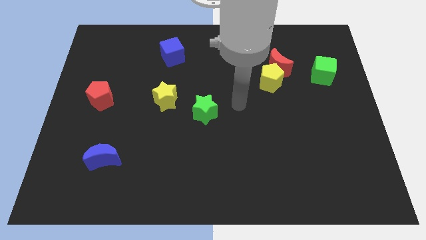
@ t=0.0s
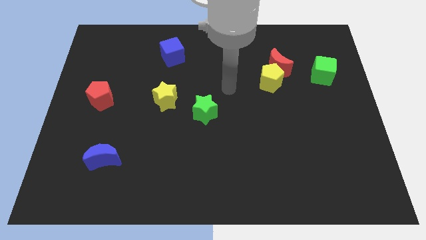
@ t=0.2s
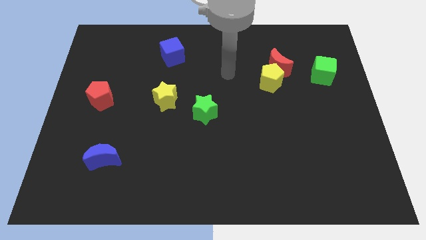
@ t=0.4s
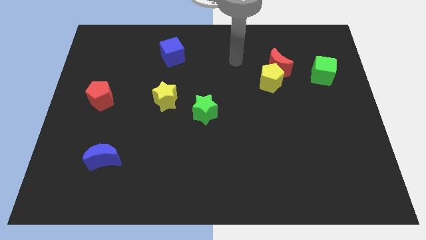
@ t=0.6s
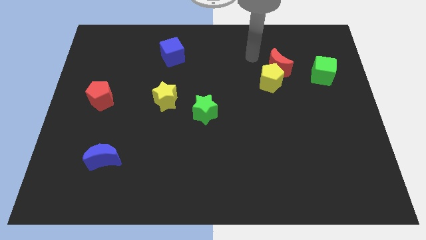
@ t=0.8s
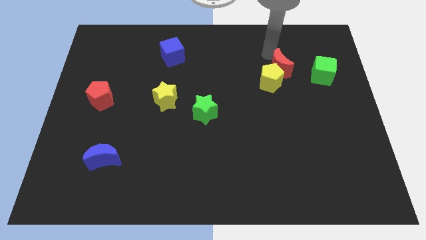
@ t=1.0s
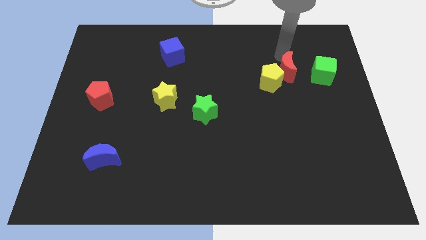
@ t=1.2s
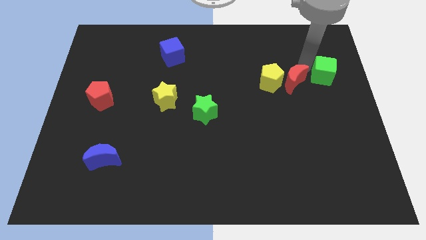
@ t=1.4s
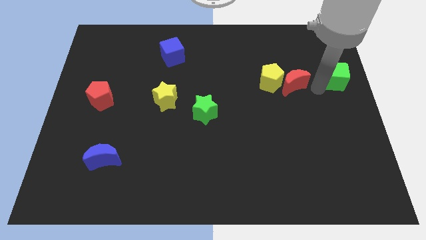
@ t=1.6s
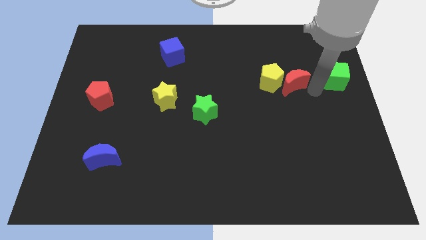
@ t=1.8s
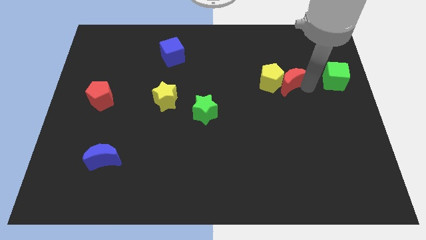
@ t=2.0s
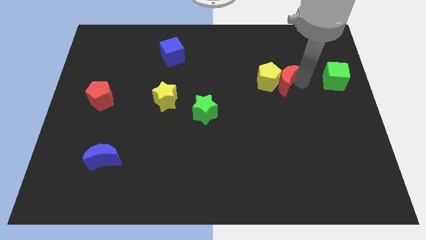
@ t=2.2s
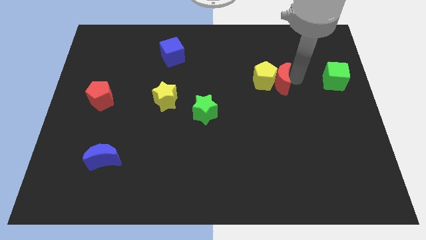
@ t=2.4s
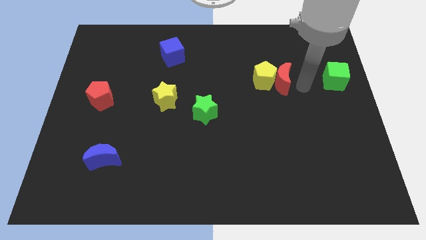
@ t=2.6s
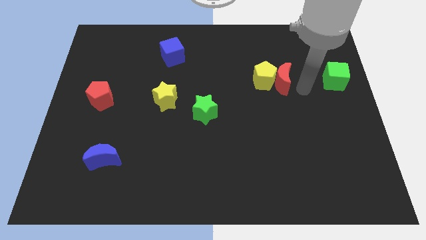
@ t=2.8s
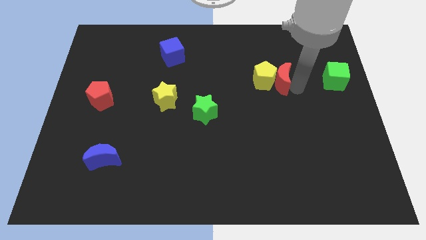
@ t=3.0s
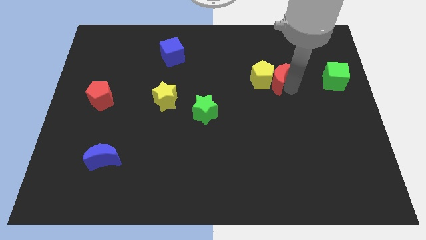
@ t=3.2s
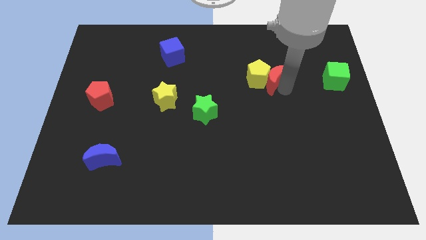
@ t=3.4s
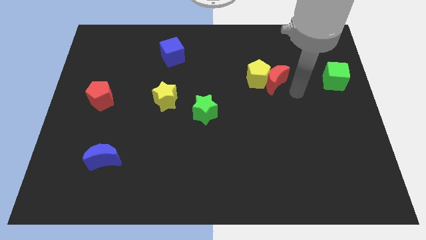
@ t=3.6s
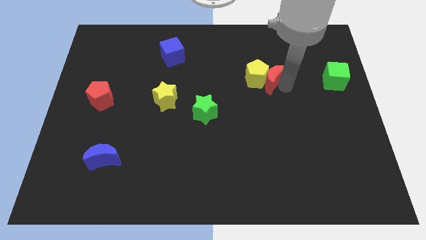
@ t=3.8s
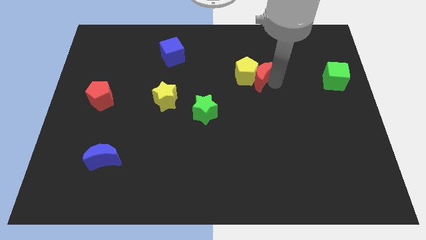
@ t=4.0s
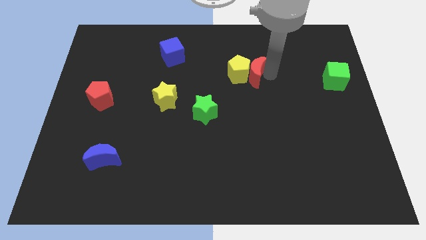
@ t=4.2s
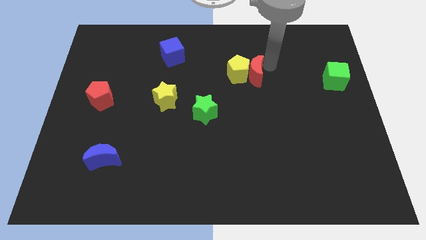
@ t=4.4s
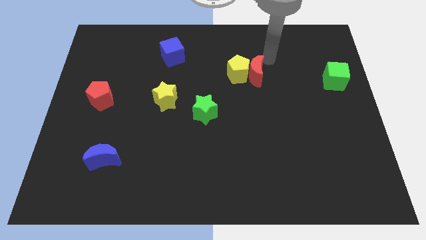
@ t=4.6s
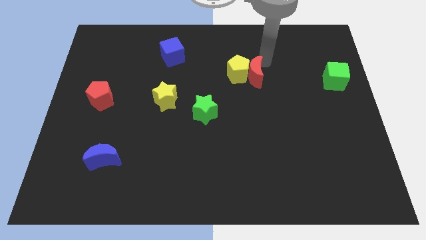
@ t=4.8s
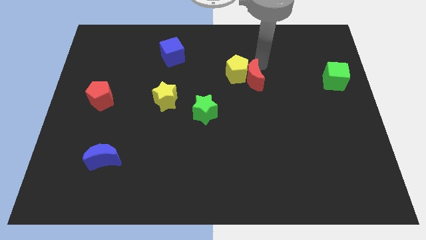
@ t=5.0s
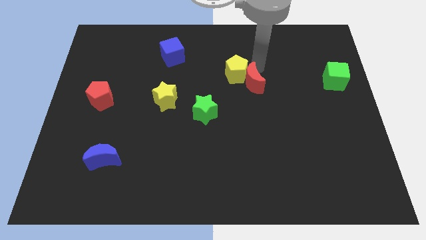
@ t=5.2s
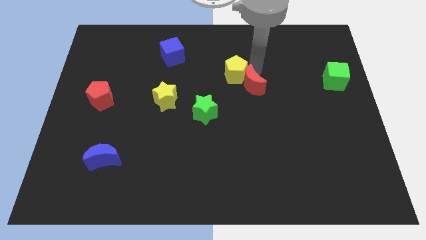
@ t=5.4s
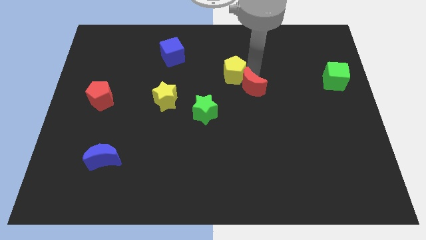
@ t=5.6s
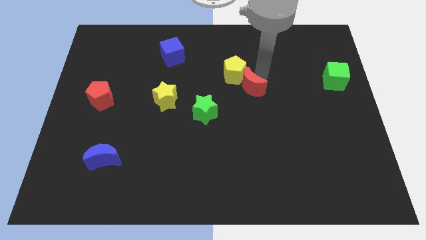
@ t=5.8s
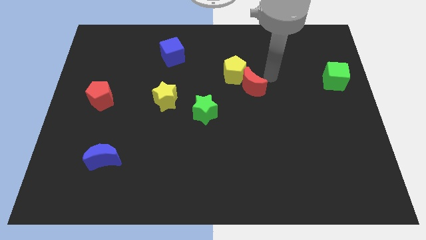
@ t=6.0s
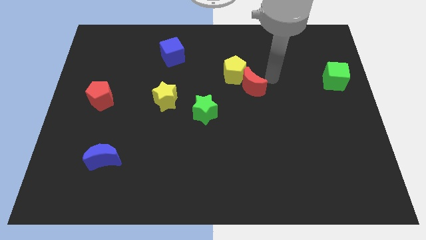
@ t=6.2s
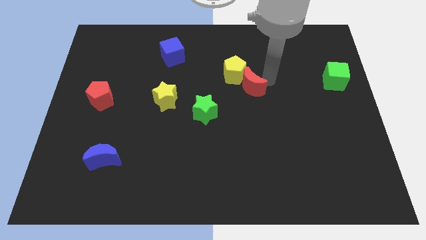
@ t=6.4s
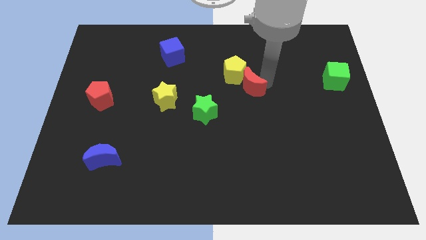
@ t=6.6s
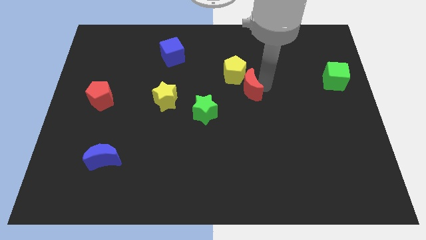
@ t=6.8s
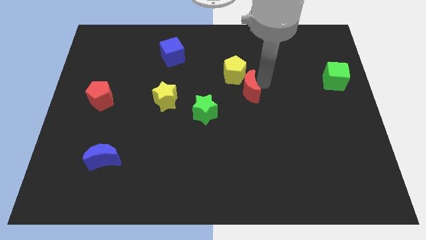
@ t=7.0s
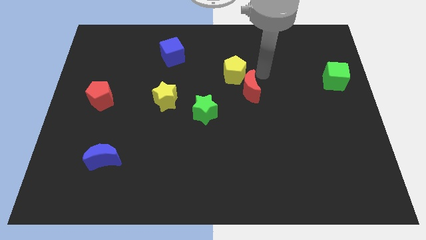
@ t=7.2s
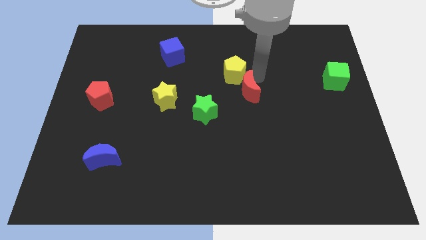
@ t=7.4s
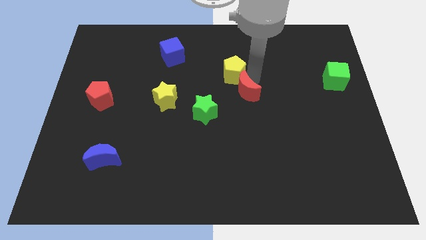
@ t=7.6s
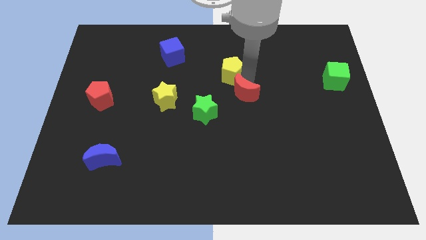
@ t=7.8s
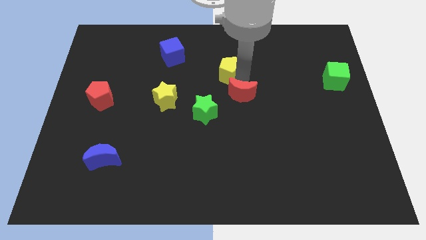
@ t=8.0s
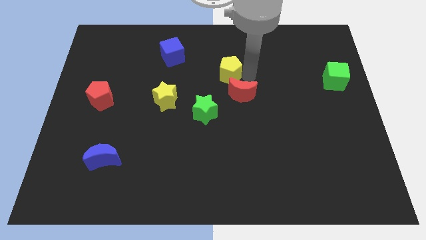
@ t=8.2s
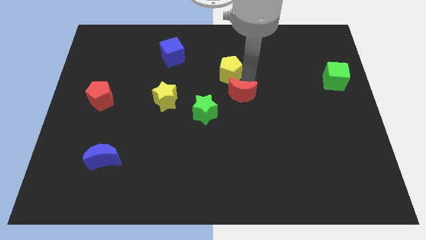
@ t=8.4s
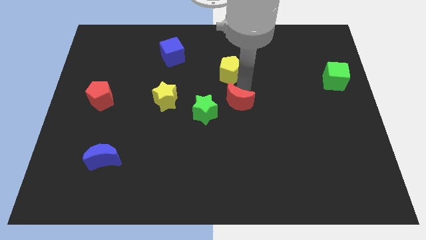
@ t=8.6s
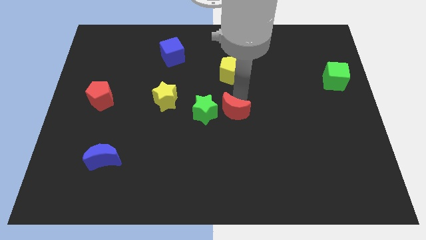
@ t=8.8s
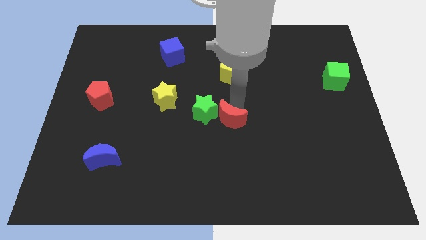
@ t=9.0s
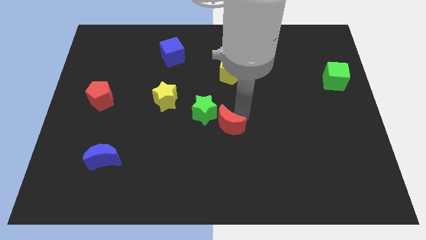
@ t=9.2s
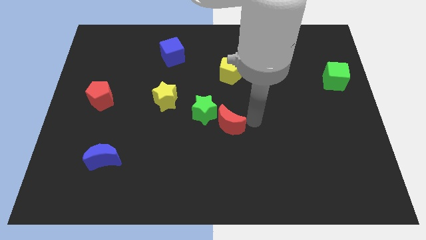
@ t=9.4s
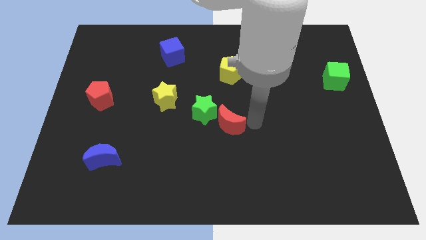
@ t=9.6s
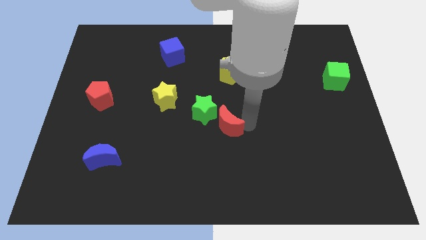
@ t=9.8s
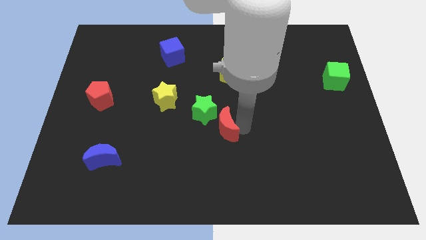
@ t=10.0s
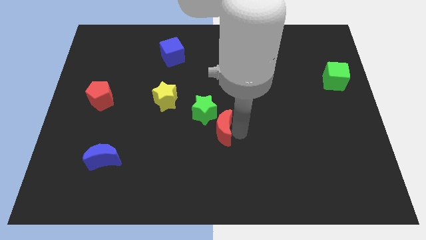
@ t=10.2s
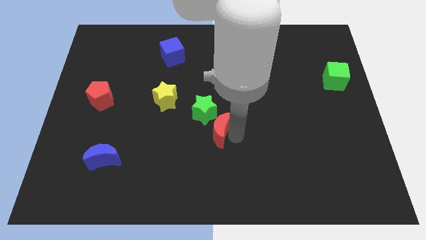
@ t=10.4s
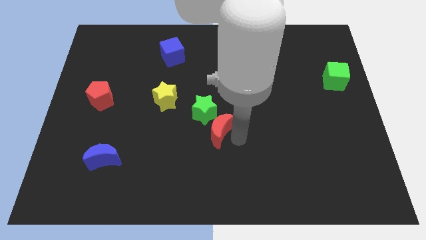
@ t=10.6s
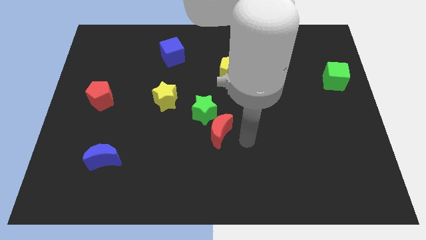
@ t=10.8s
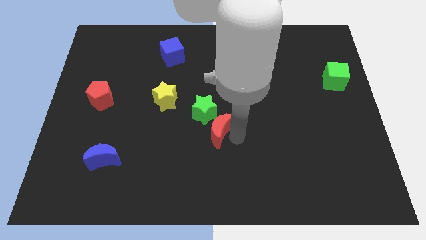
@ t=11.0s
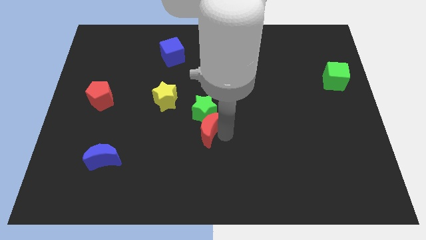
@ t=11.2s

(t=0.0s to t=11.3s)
move the red moon diagonally down and to the left of the green star

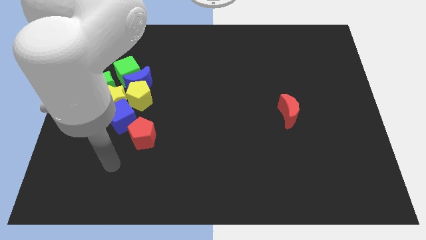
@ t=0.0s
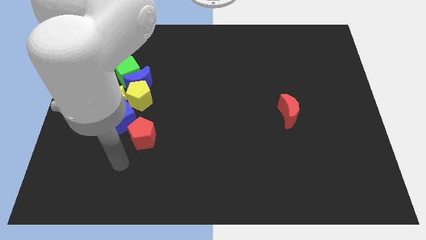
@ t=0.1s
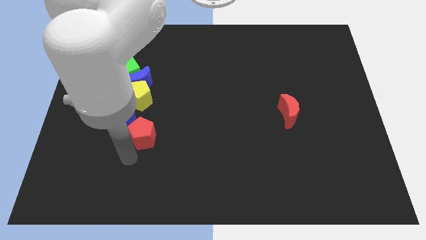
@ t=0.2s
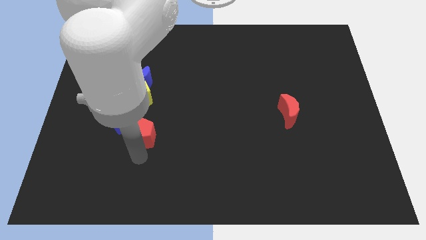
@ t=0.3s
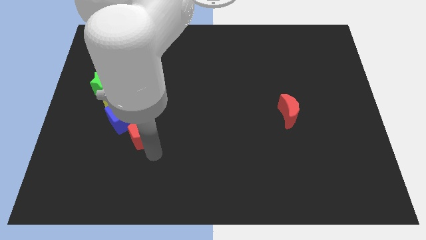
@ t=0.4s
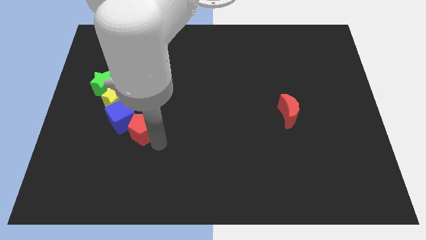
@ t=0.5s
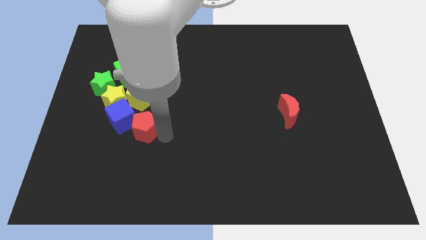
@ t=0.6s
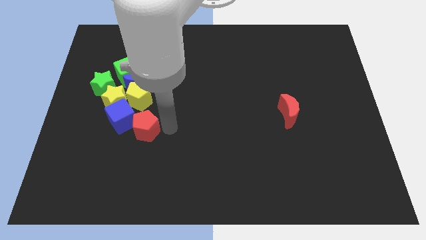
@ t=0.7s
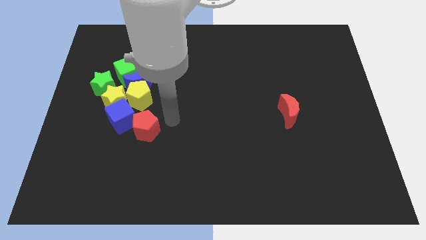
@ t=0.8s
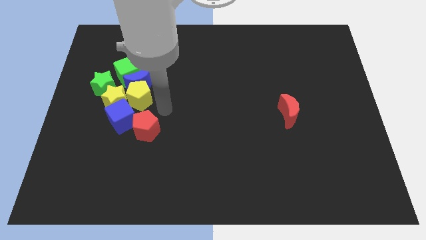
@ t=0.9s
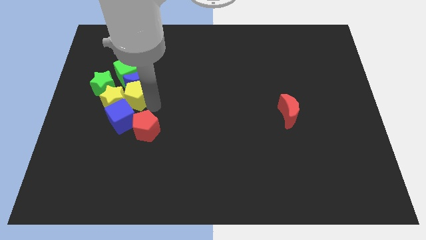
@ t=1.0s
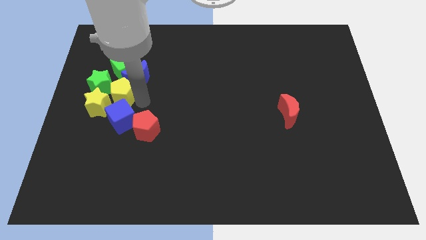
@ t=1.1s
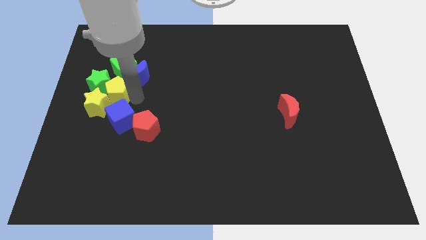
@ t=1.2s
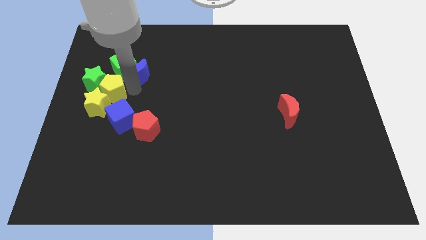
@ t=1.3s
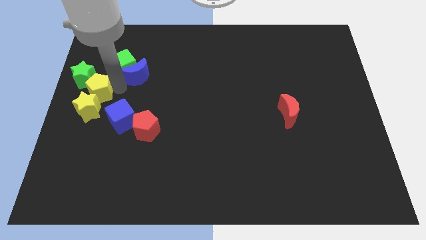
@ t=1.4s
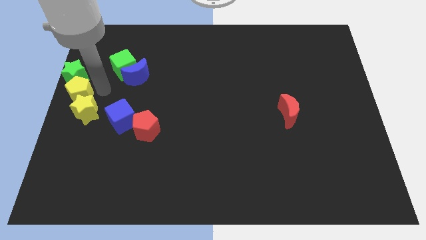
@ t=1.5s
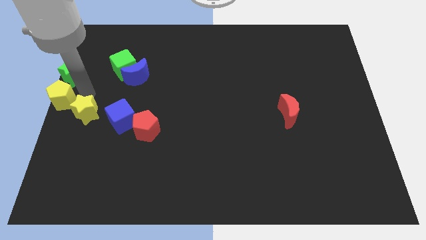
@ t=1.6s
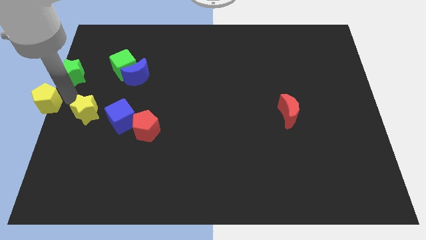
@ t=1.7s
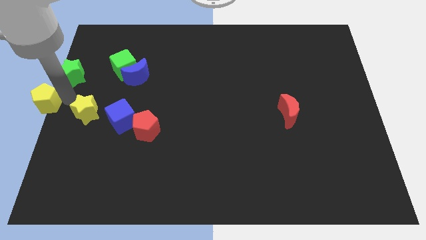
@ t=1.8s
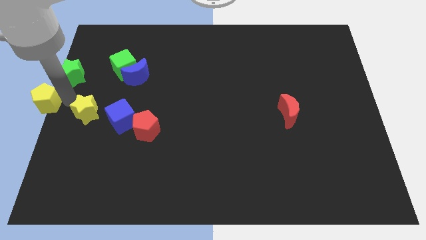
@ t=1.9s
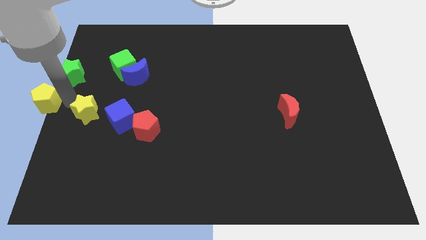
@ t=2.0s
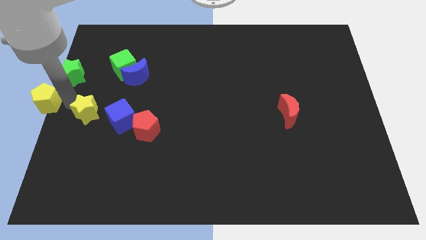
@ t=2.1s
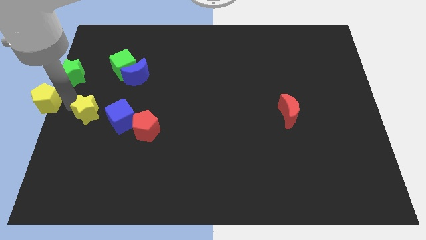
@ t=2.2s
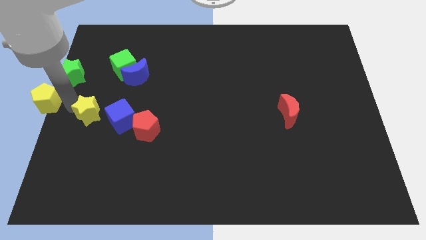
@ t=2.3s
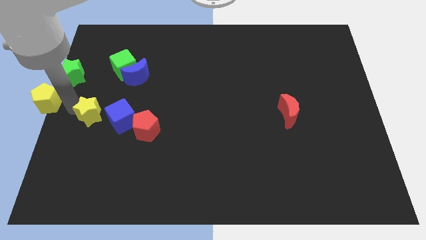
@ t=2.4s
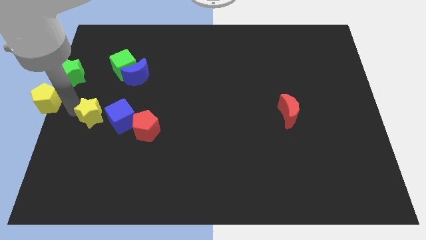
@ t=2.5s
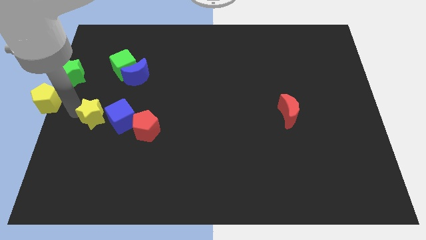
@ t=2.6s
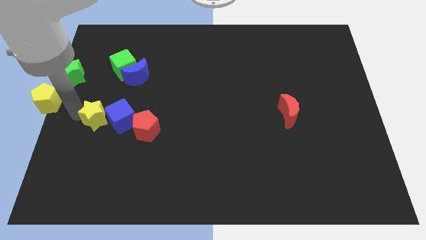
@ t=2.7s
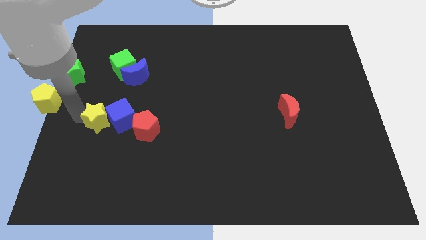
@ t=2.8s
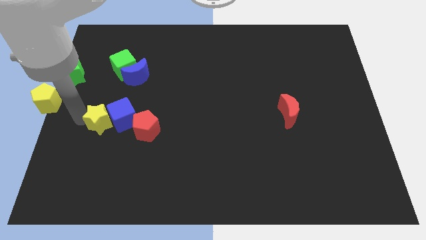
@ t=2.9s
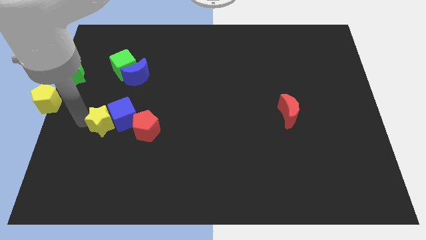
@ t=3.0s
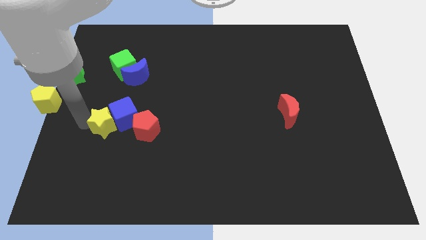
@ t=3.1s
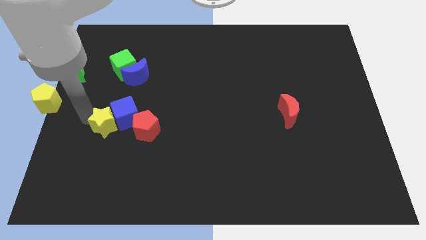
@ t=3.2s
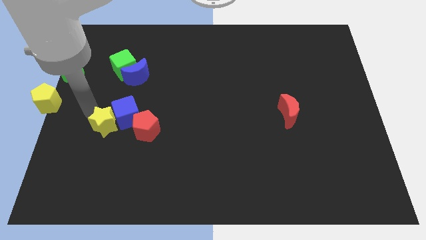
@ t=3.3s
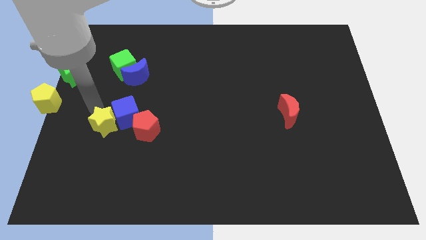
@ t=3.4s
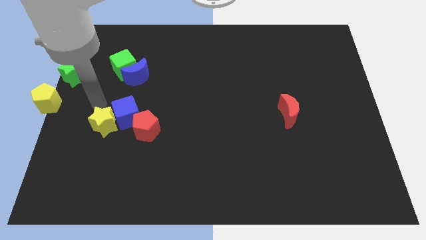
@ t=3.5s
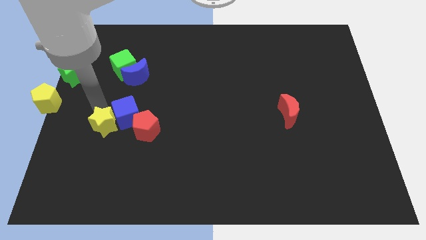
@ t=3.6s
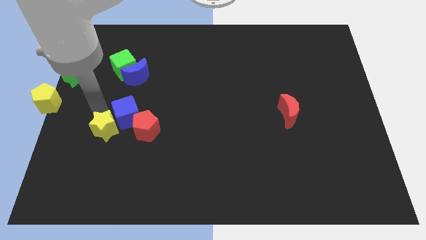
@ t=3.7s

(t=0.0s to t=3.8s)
put the yellow star below the blue cube
